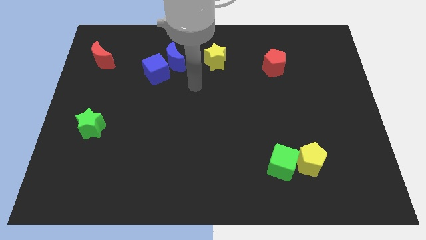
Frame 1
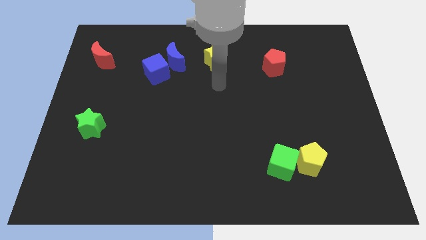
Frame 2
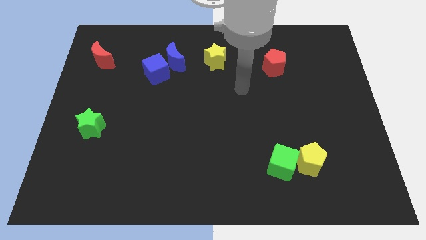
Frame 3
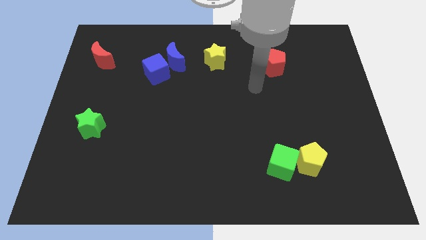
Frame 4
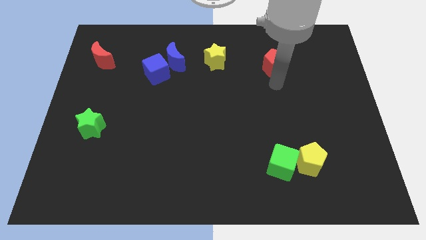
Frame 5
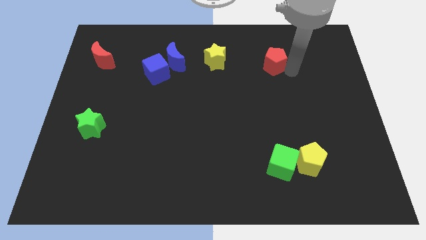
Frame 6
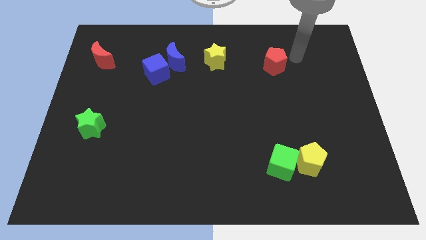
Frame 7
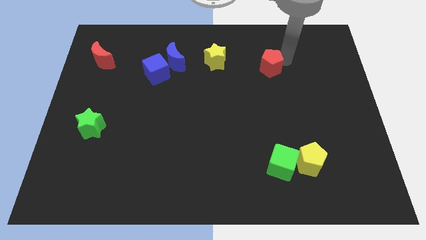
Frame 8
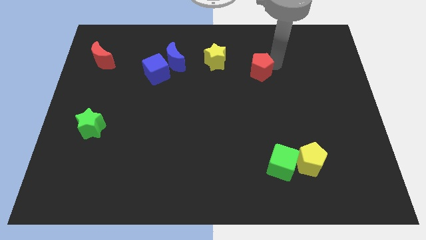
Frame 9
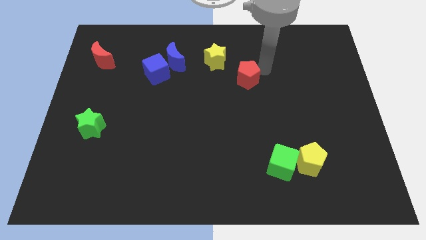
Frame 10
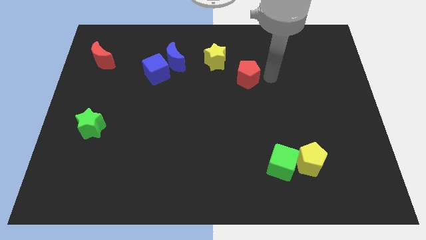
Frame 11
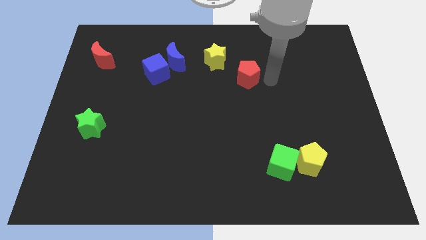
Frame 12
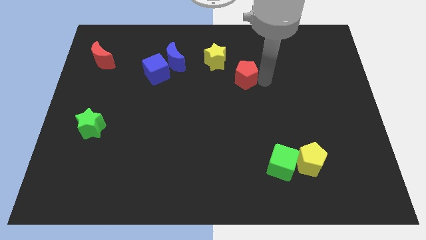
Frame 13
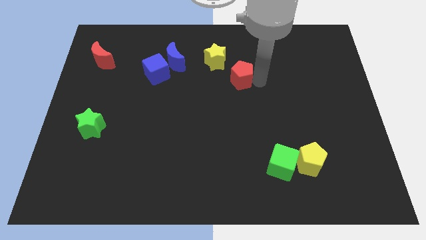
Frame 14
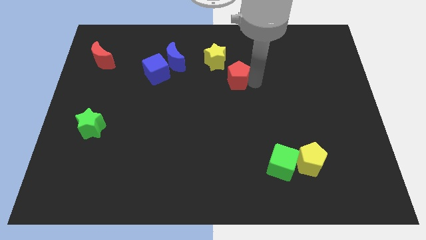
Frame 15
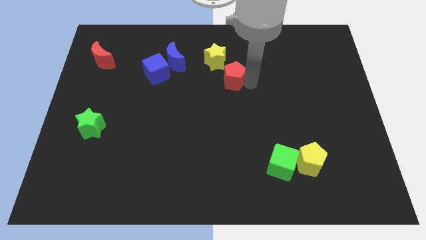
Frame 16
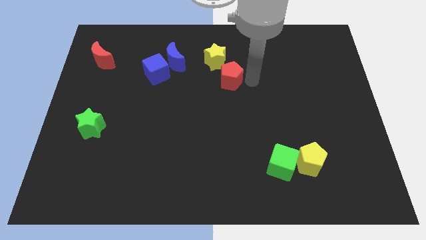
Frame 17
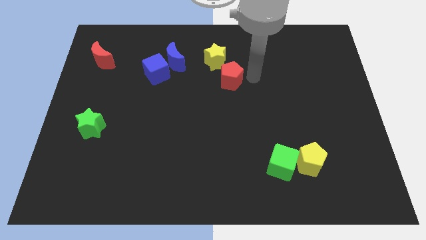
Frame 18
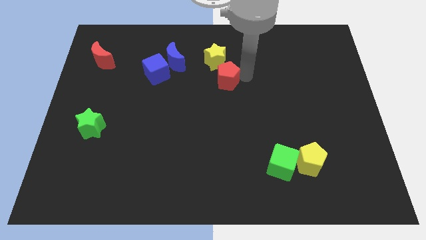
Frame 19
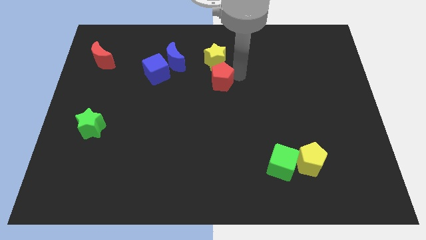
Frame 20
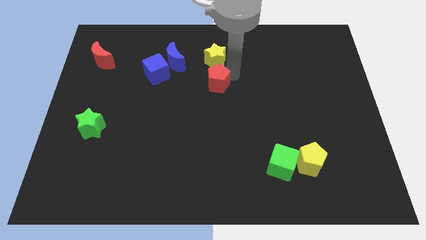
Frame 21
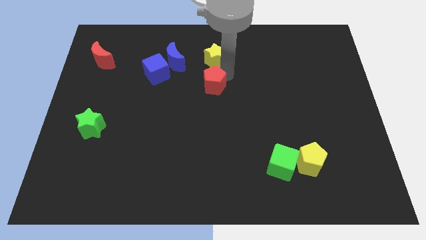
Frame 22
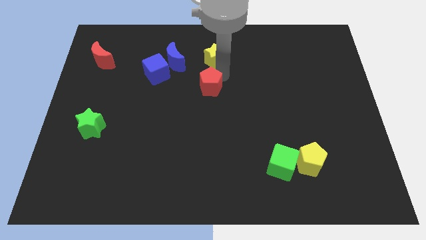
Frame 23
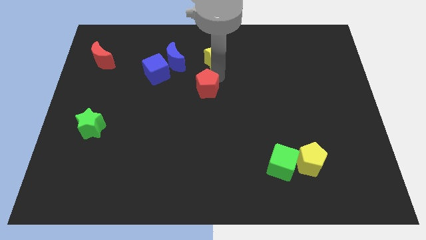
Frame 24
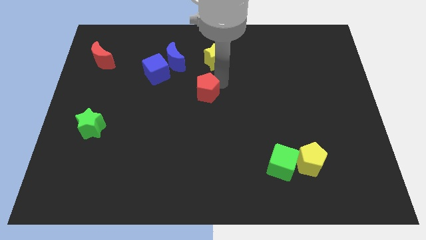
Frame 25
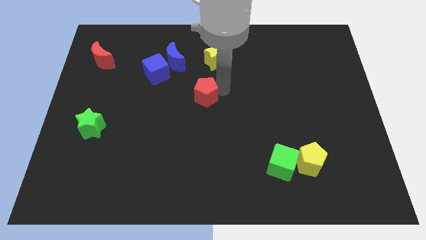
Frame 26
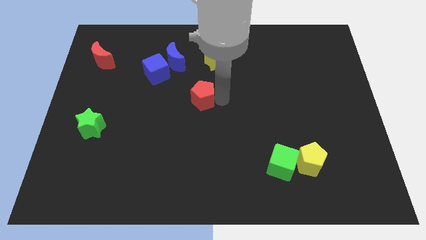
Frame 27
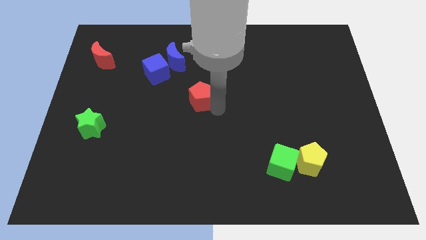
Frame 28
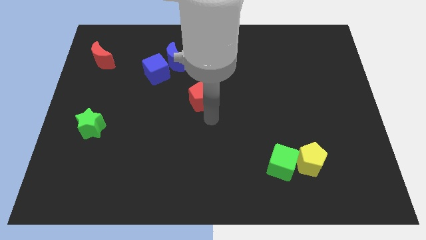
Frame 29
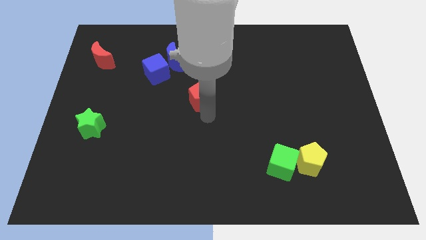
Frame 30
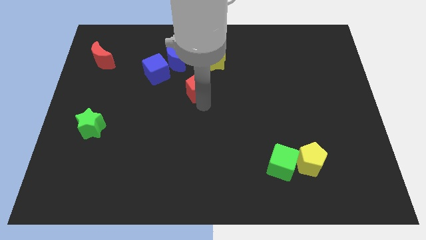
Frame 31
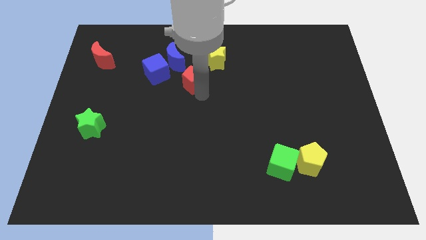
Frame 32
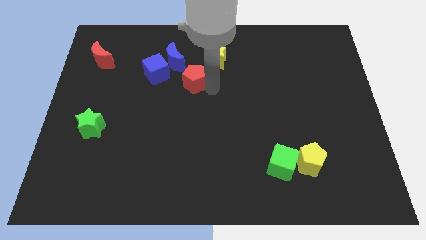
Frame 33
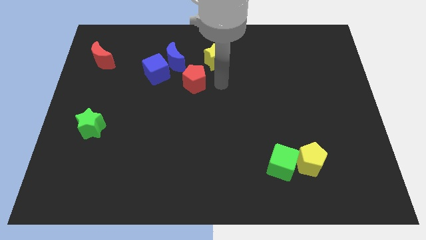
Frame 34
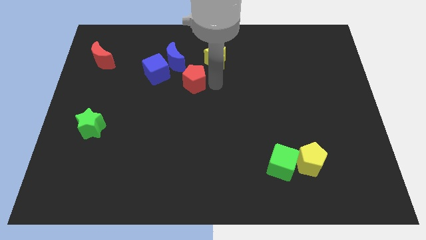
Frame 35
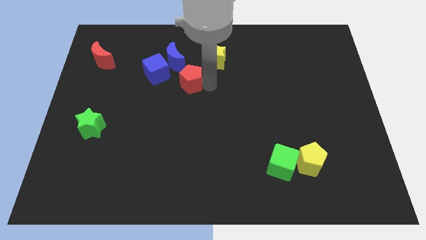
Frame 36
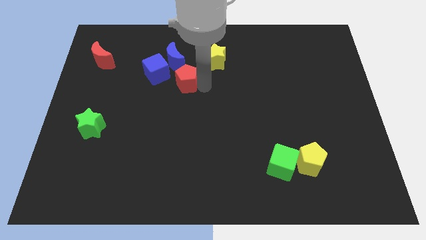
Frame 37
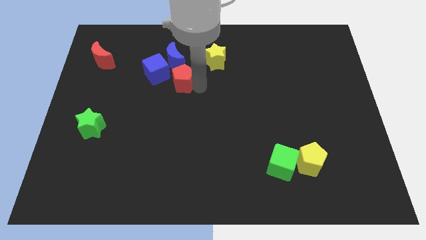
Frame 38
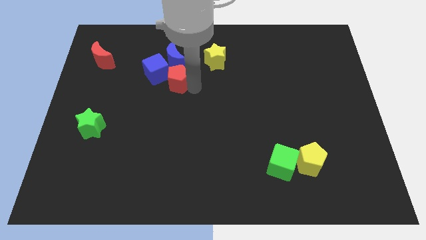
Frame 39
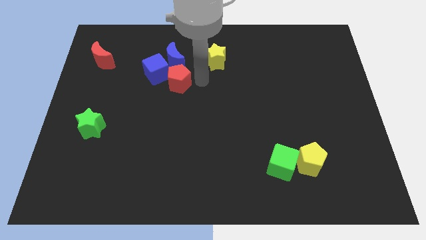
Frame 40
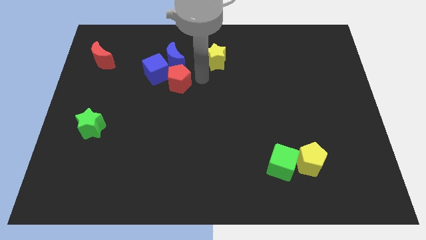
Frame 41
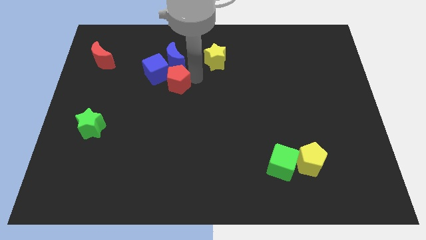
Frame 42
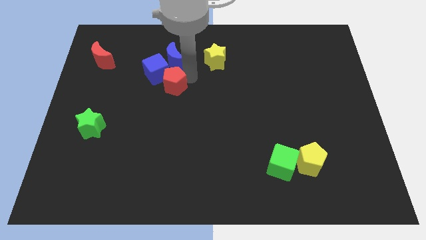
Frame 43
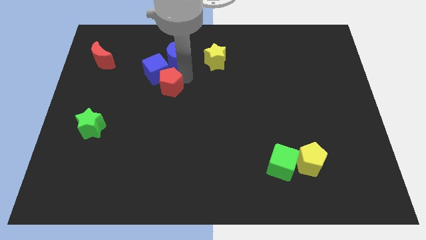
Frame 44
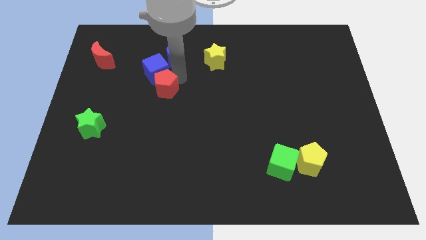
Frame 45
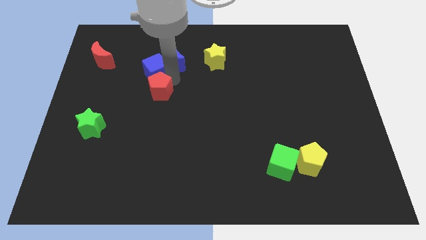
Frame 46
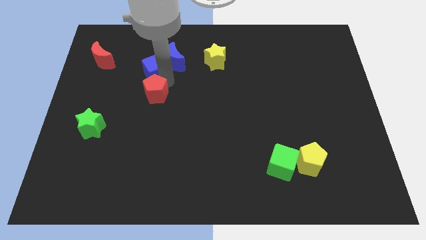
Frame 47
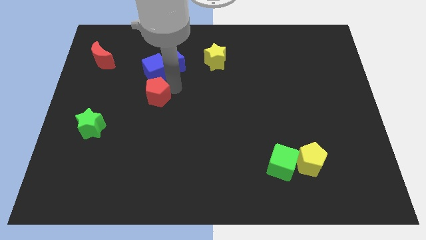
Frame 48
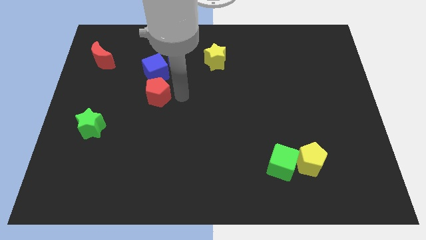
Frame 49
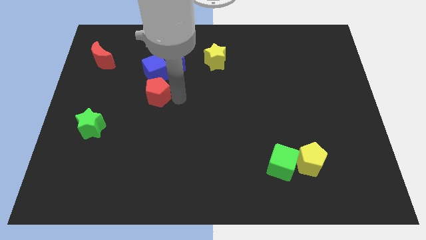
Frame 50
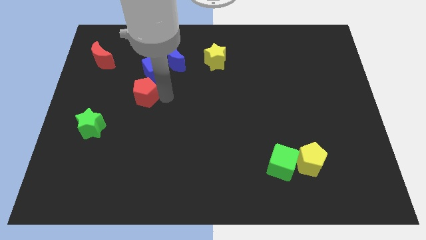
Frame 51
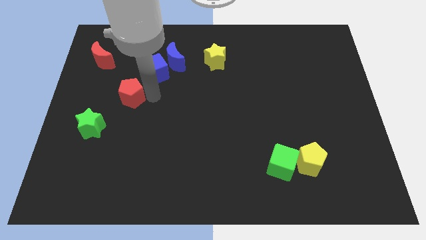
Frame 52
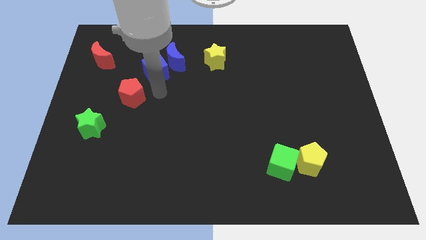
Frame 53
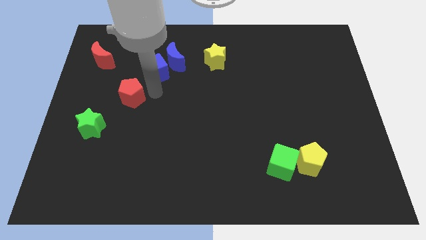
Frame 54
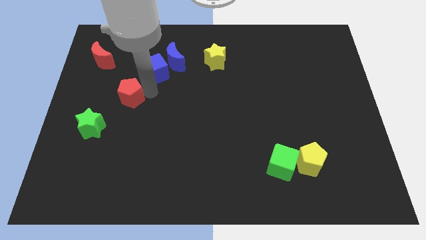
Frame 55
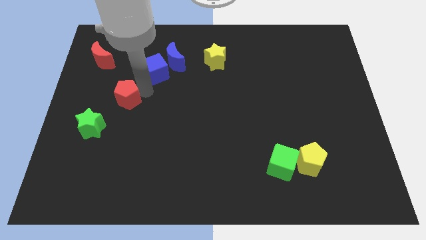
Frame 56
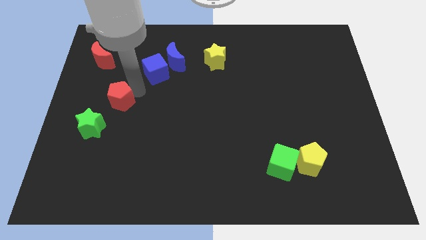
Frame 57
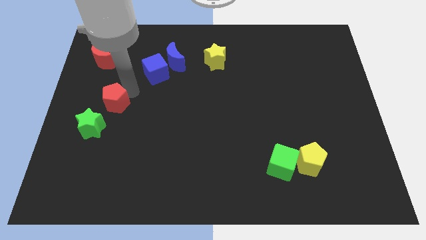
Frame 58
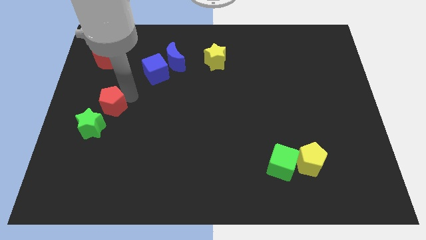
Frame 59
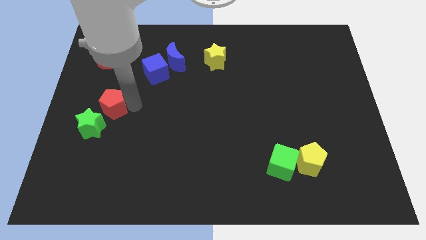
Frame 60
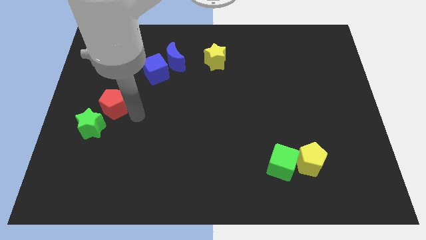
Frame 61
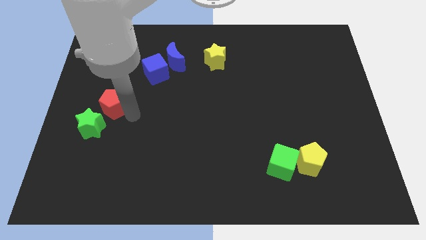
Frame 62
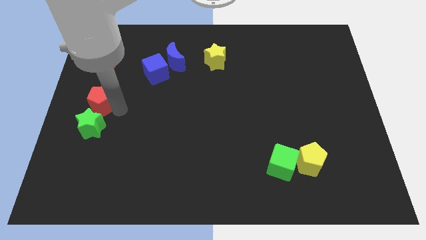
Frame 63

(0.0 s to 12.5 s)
put the red pentagon to the left side

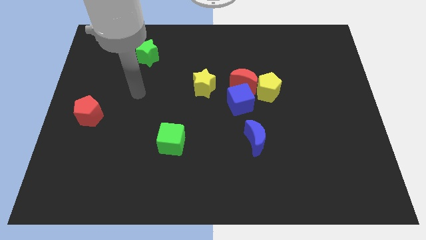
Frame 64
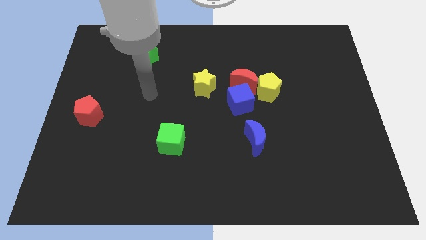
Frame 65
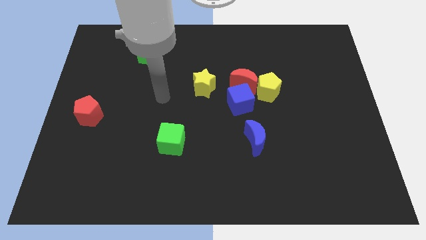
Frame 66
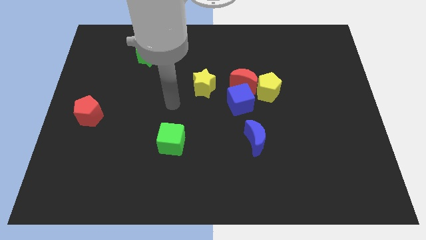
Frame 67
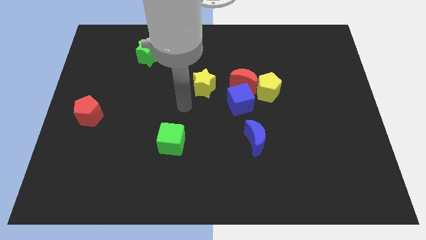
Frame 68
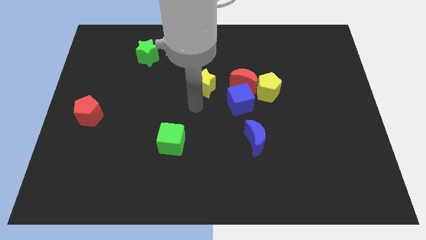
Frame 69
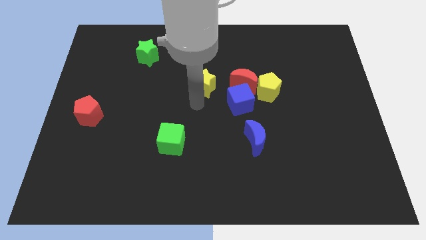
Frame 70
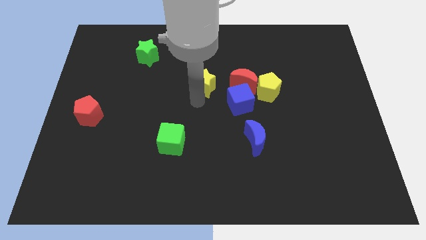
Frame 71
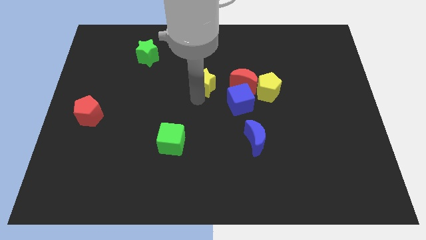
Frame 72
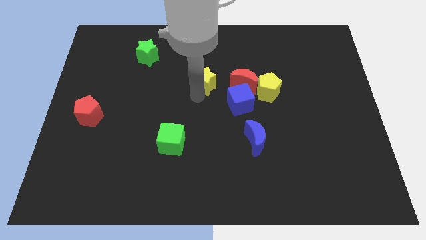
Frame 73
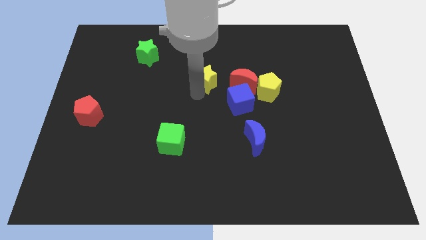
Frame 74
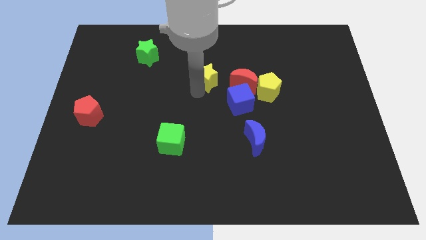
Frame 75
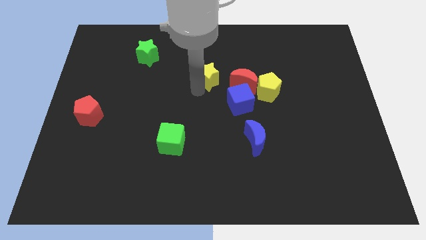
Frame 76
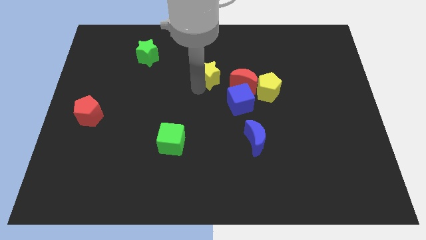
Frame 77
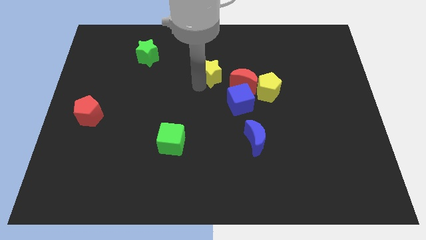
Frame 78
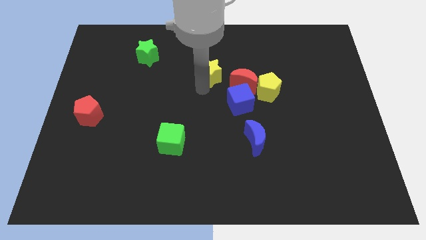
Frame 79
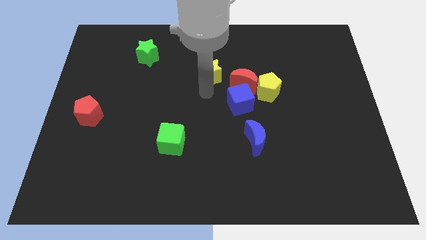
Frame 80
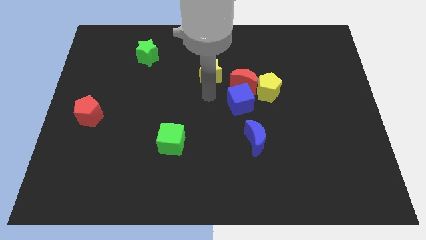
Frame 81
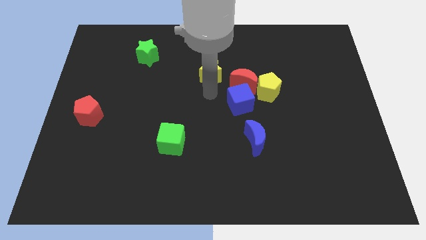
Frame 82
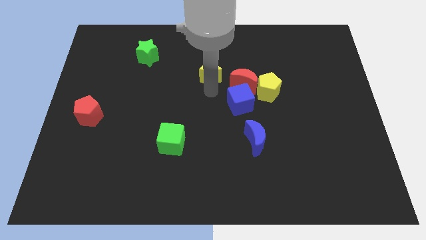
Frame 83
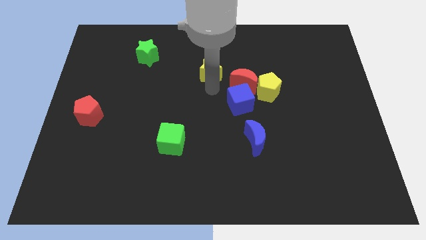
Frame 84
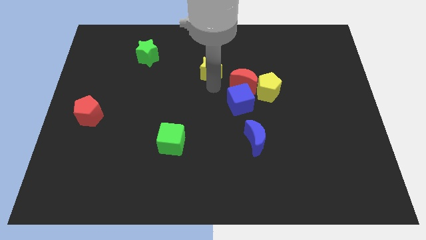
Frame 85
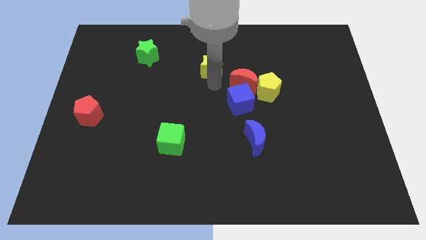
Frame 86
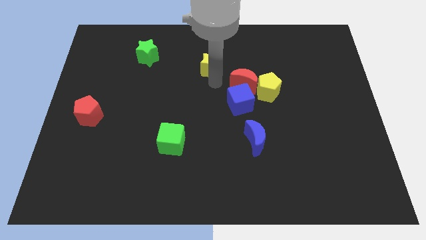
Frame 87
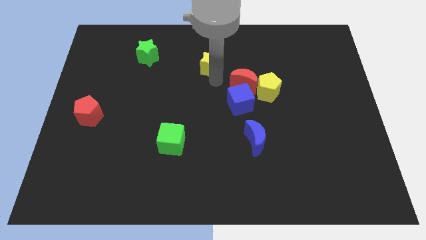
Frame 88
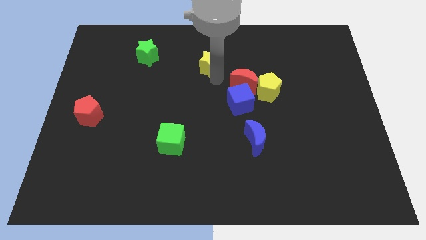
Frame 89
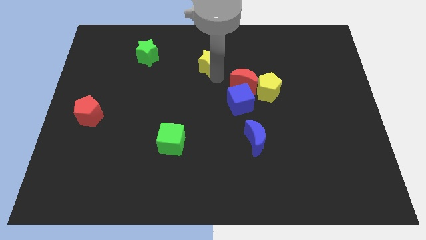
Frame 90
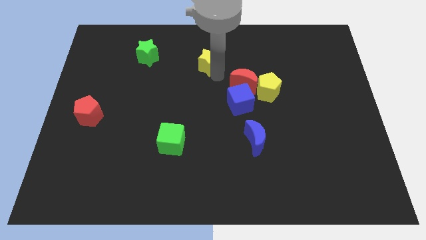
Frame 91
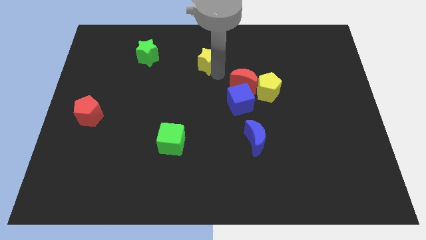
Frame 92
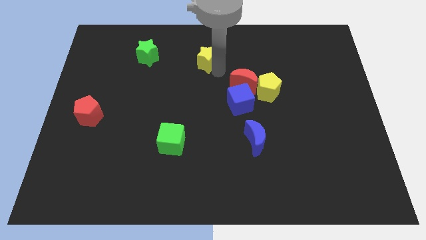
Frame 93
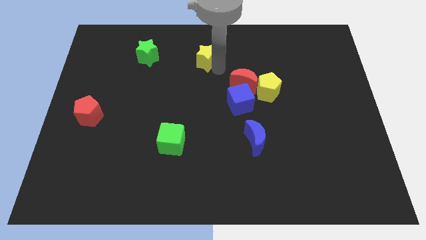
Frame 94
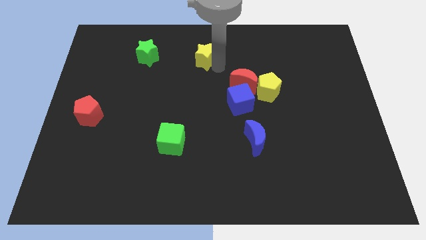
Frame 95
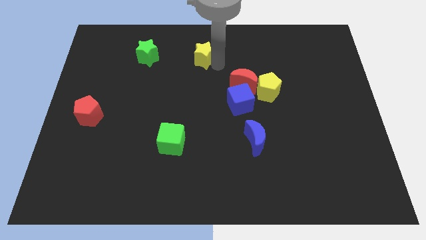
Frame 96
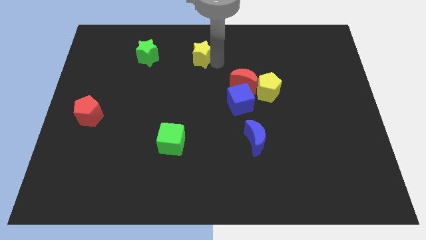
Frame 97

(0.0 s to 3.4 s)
put the yellow star to the top side
